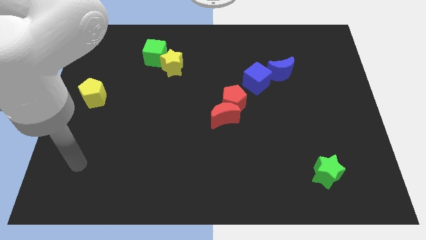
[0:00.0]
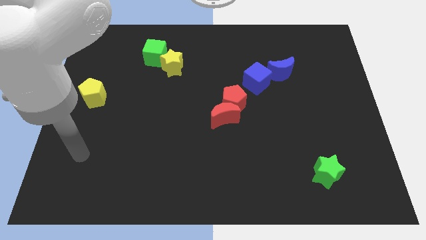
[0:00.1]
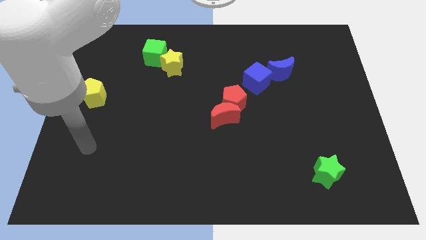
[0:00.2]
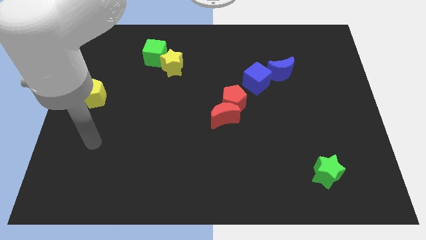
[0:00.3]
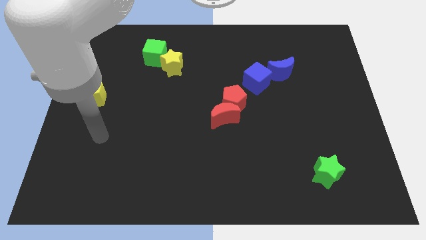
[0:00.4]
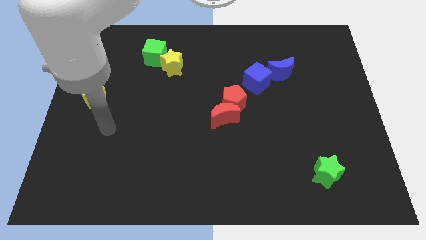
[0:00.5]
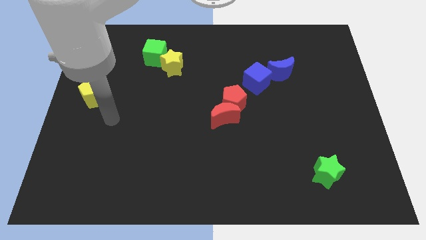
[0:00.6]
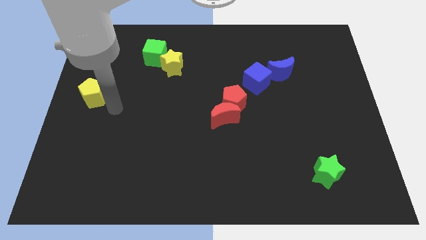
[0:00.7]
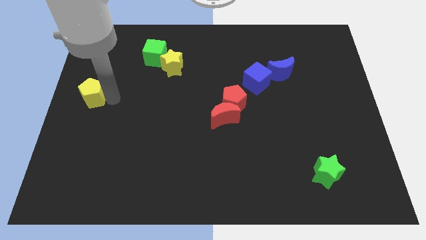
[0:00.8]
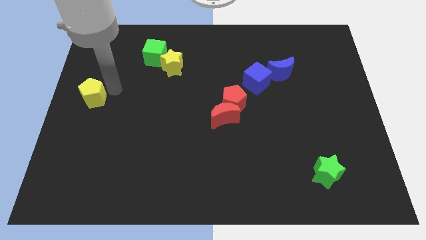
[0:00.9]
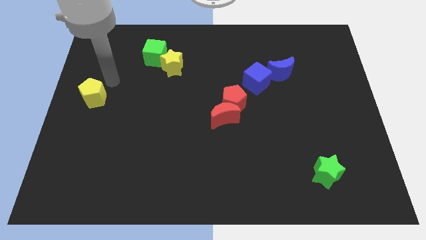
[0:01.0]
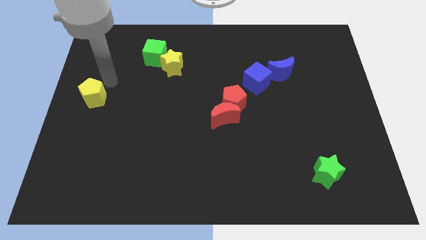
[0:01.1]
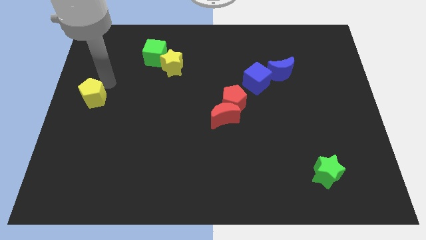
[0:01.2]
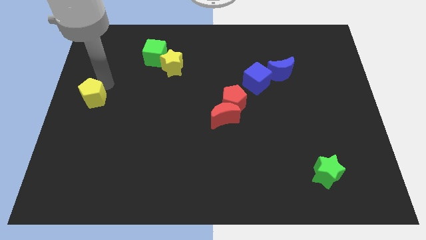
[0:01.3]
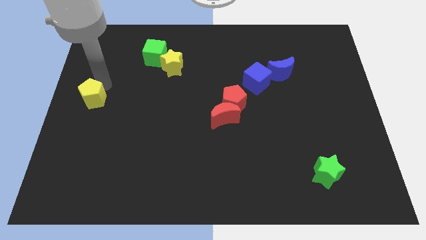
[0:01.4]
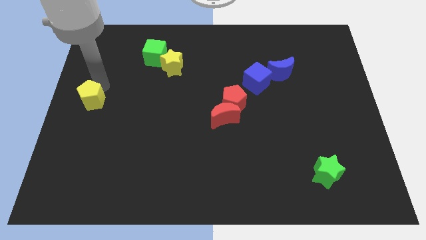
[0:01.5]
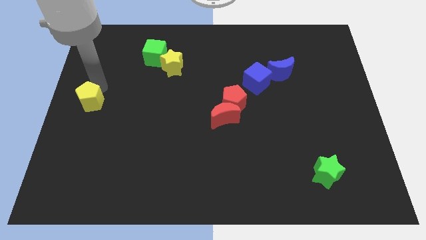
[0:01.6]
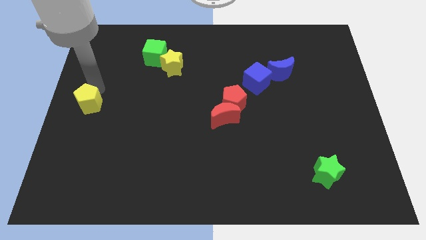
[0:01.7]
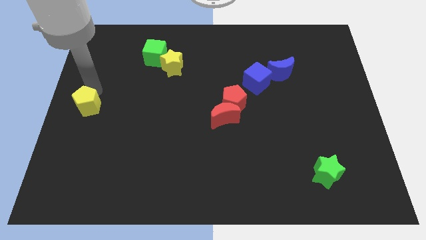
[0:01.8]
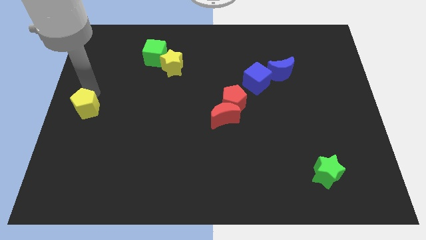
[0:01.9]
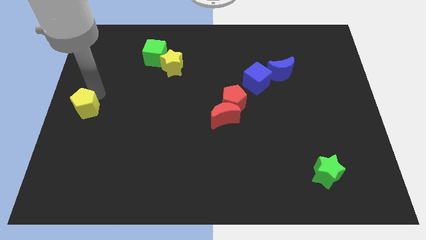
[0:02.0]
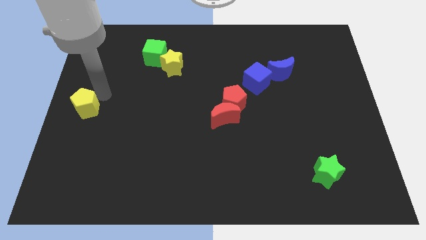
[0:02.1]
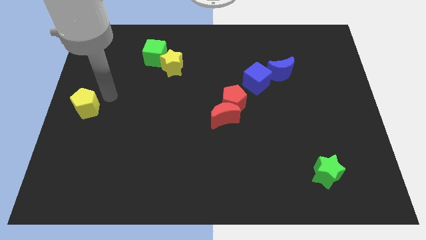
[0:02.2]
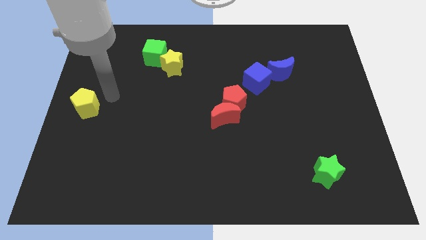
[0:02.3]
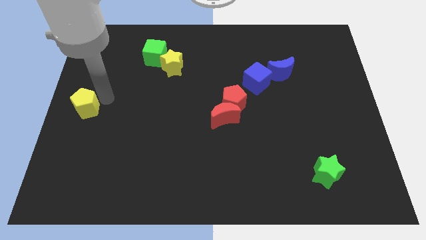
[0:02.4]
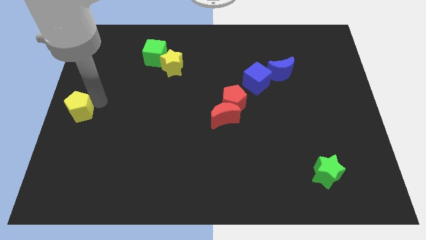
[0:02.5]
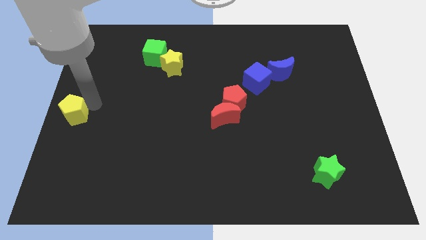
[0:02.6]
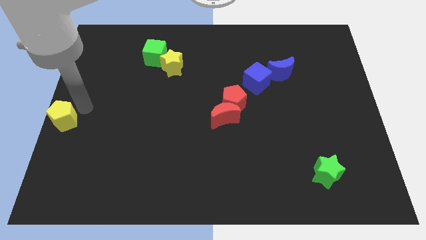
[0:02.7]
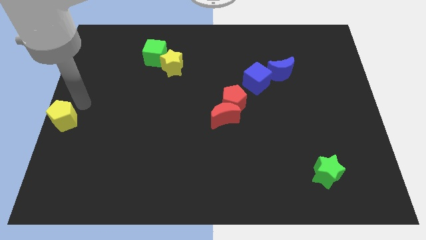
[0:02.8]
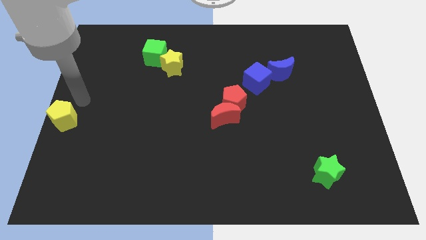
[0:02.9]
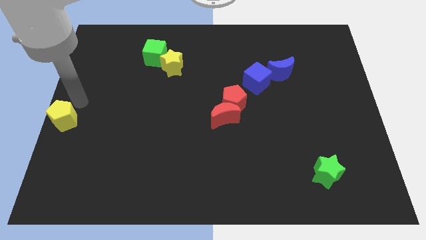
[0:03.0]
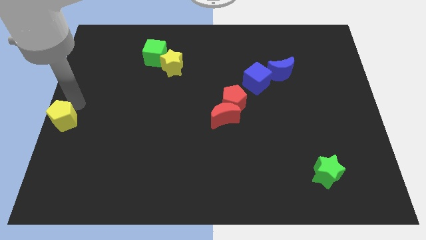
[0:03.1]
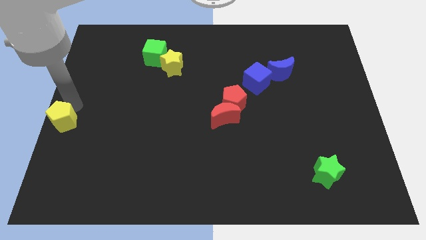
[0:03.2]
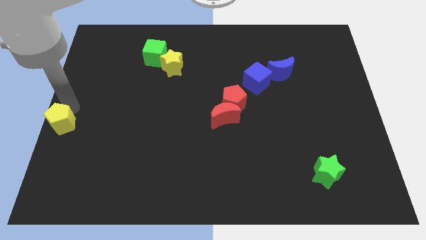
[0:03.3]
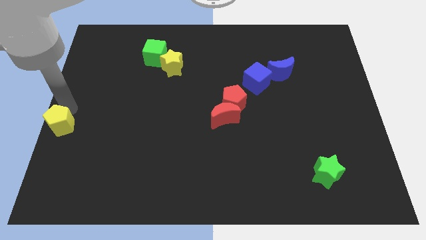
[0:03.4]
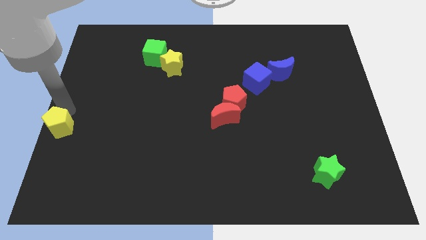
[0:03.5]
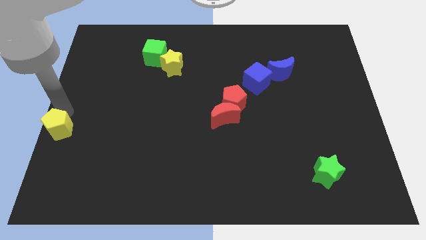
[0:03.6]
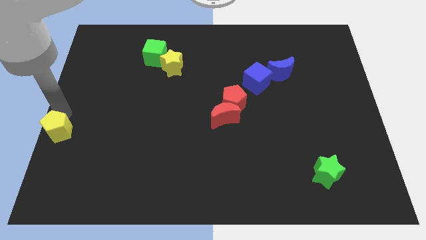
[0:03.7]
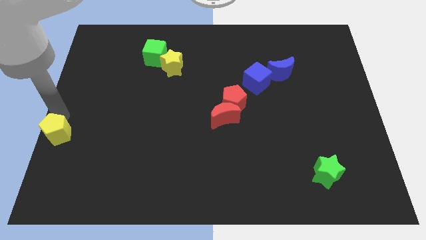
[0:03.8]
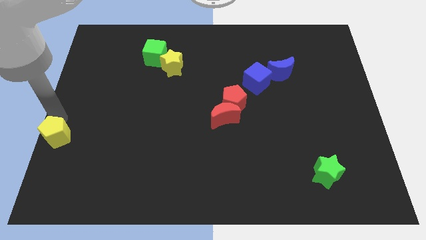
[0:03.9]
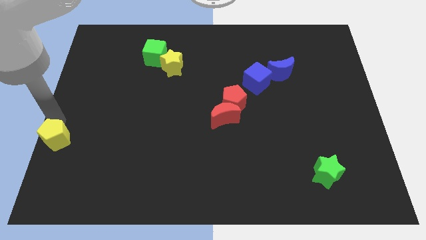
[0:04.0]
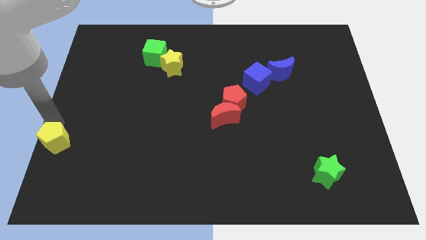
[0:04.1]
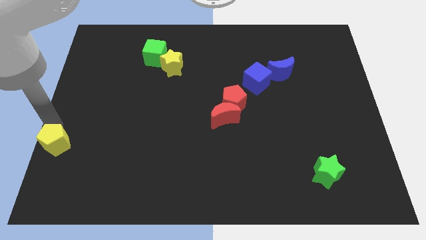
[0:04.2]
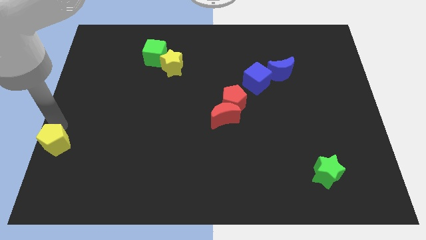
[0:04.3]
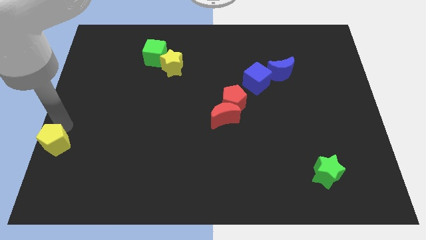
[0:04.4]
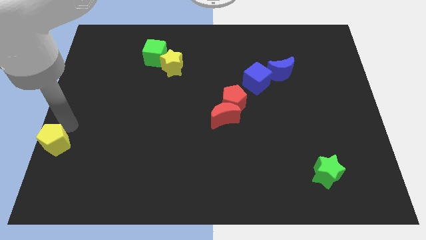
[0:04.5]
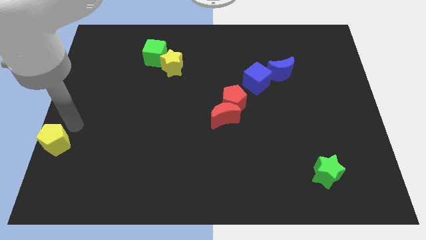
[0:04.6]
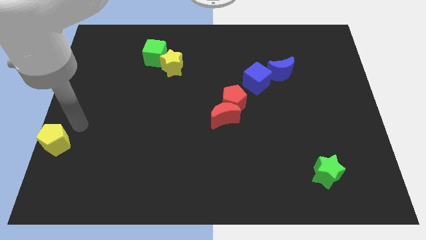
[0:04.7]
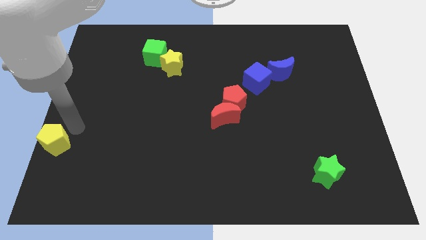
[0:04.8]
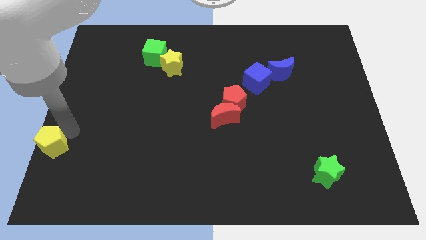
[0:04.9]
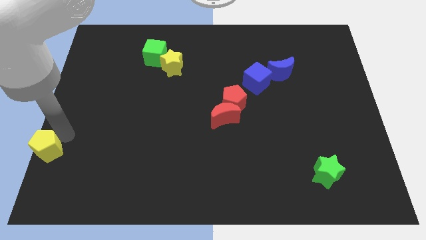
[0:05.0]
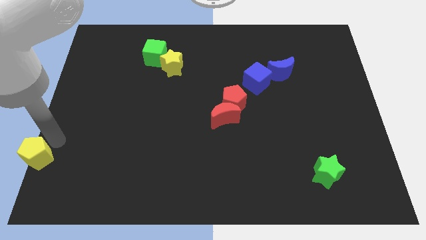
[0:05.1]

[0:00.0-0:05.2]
put the yellow pentagon to the bottom left of the board

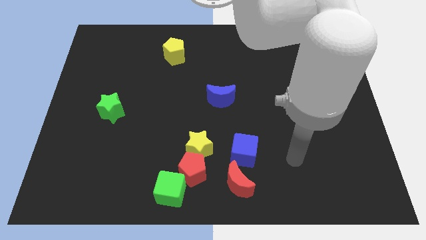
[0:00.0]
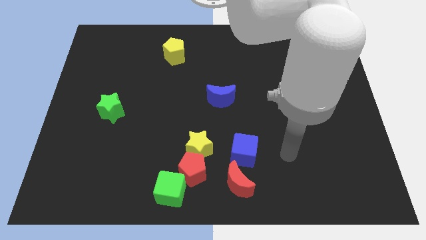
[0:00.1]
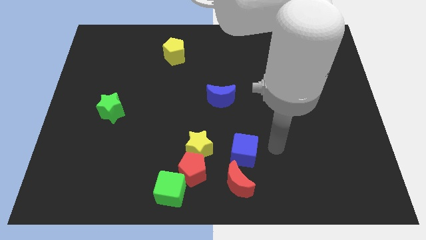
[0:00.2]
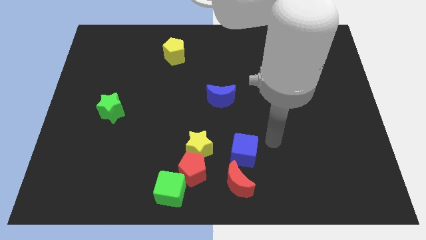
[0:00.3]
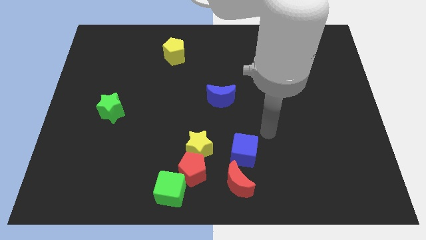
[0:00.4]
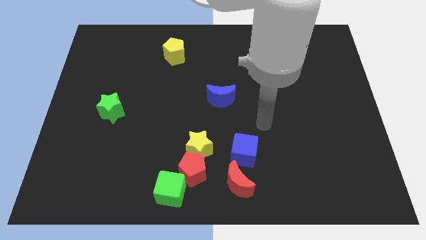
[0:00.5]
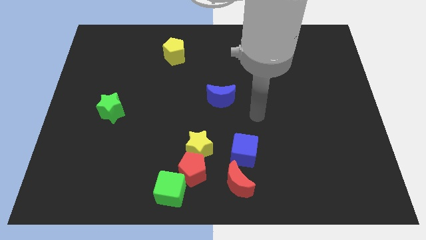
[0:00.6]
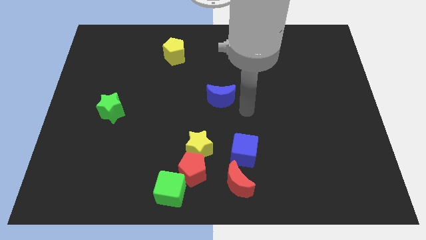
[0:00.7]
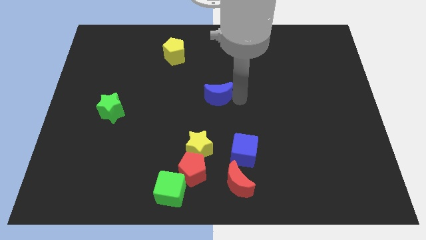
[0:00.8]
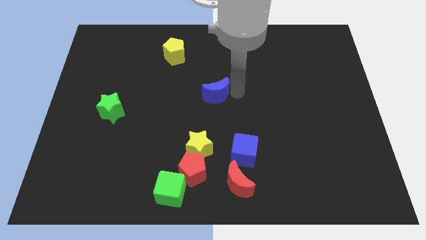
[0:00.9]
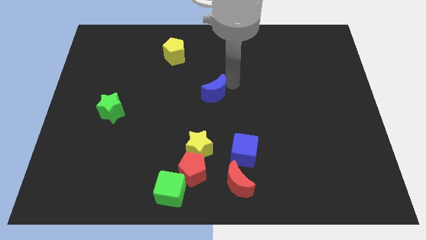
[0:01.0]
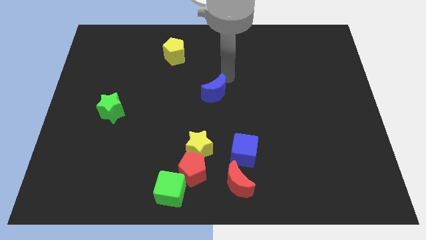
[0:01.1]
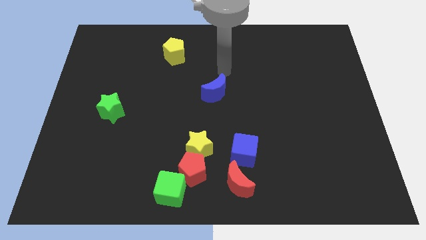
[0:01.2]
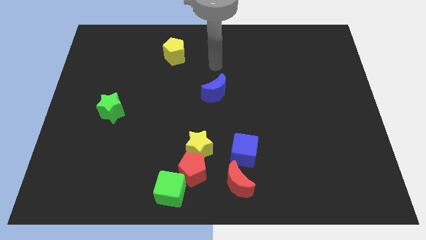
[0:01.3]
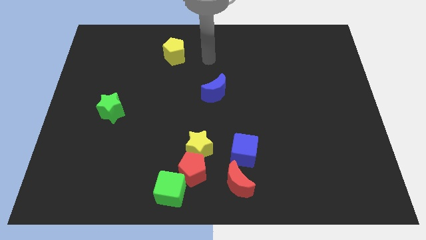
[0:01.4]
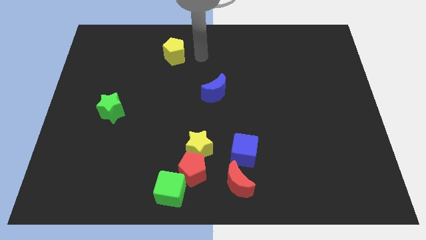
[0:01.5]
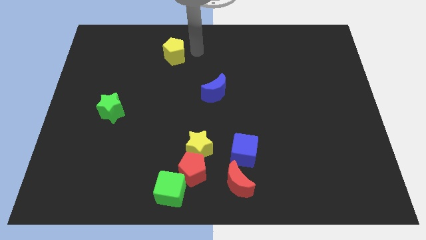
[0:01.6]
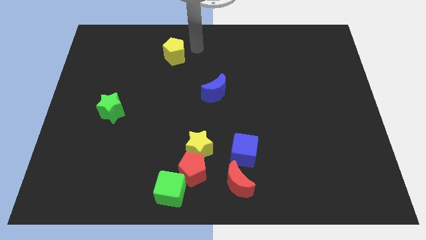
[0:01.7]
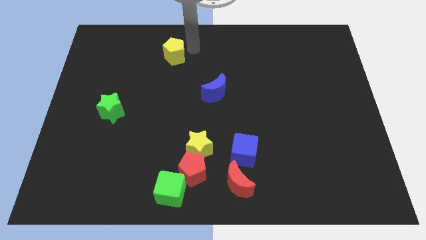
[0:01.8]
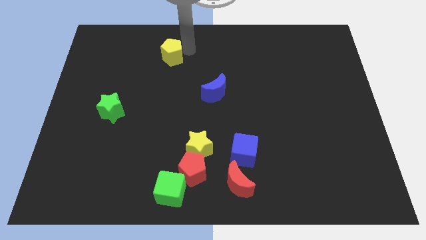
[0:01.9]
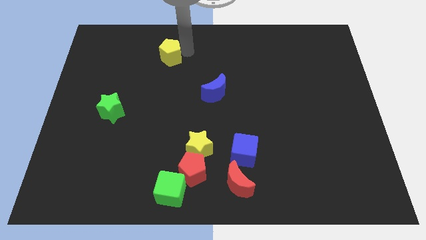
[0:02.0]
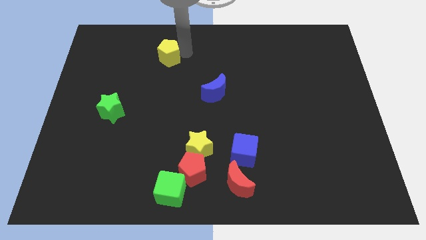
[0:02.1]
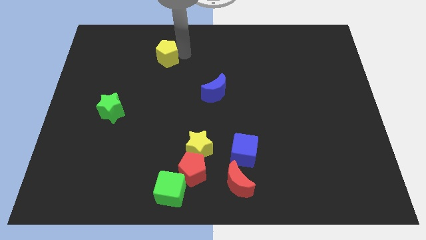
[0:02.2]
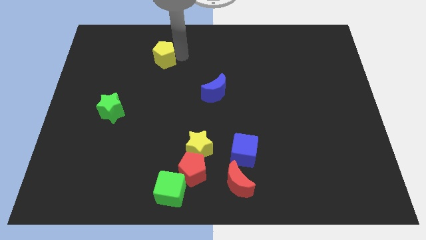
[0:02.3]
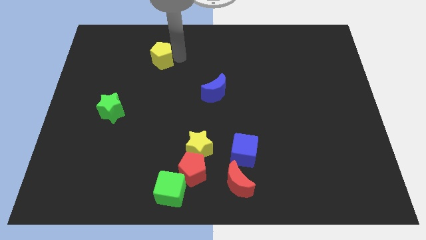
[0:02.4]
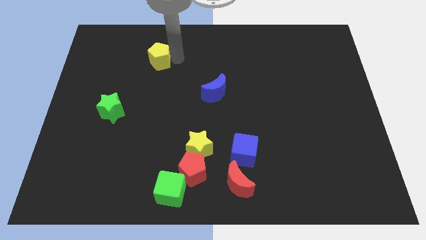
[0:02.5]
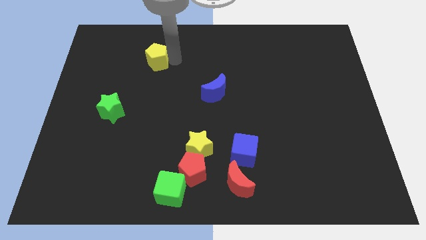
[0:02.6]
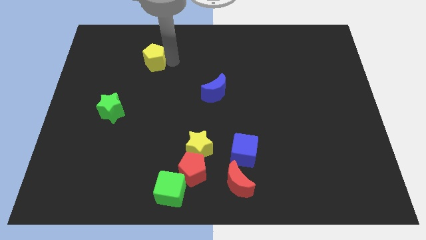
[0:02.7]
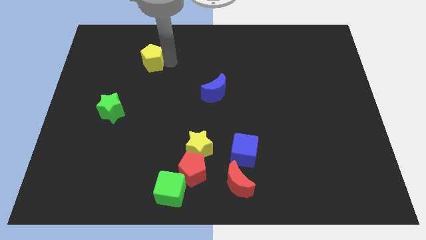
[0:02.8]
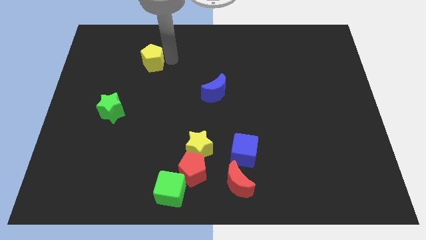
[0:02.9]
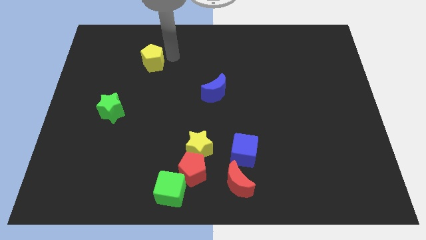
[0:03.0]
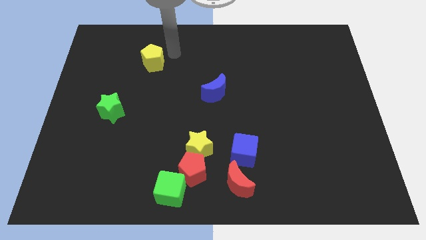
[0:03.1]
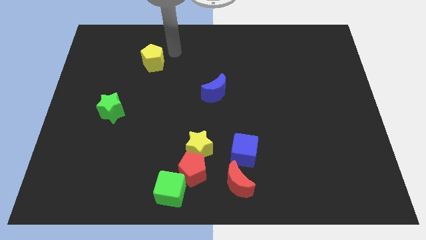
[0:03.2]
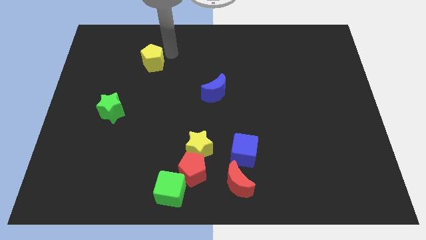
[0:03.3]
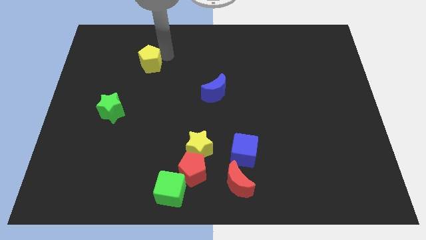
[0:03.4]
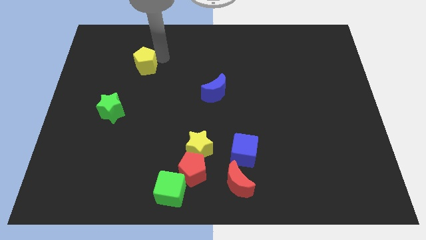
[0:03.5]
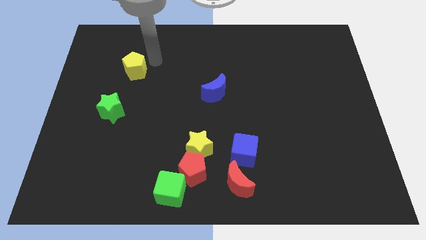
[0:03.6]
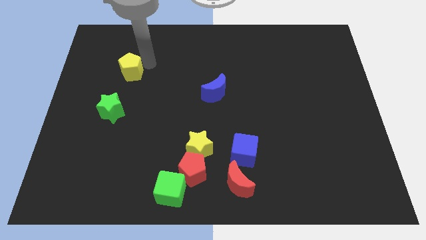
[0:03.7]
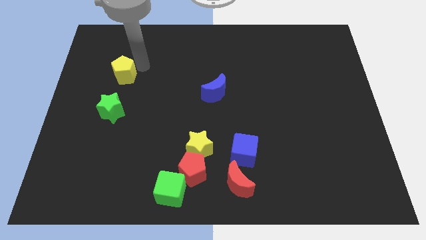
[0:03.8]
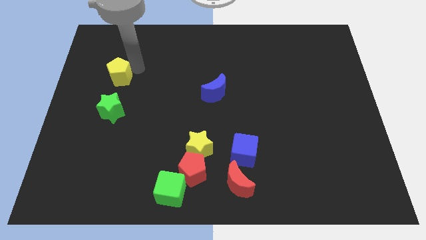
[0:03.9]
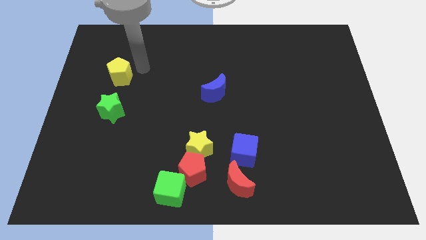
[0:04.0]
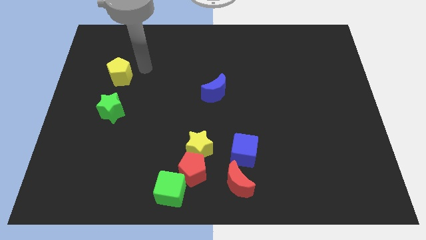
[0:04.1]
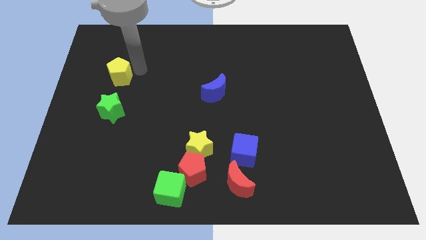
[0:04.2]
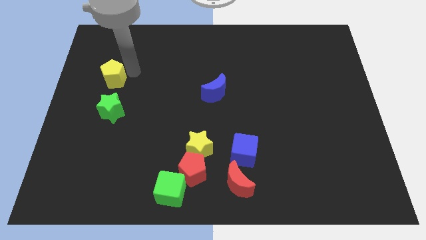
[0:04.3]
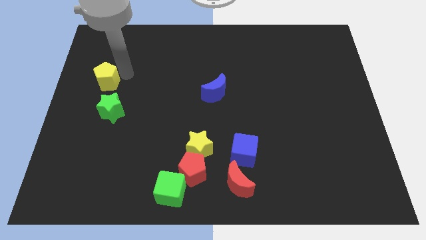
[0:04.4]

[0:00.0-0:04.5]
move the yellow pentagon to the left side
